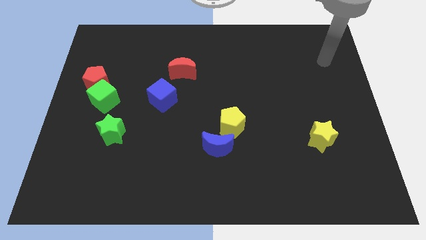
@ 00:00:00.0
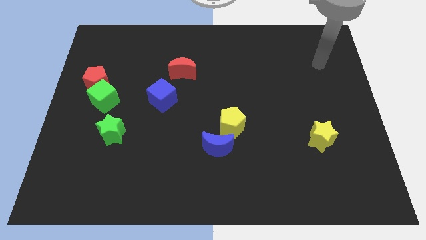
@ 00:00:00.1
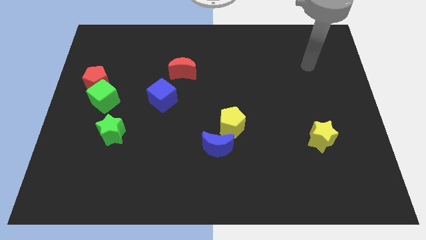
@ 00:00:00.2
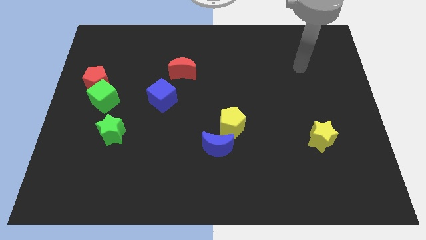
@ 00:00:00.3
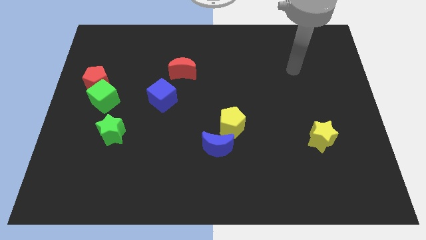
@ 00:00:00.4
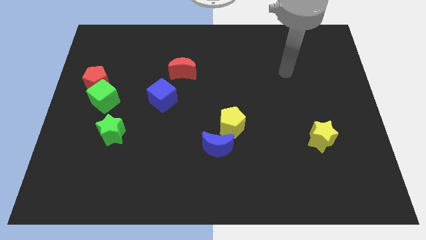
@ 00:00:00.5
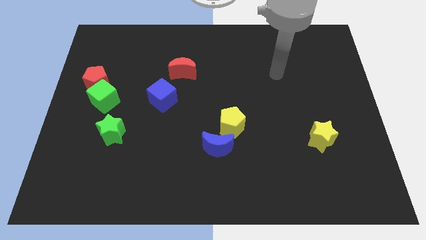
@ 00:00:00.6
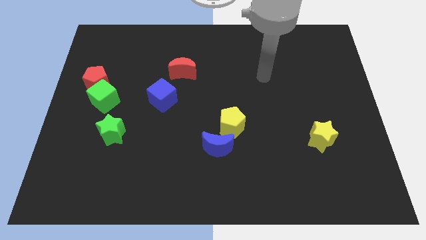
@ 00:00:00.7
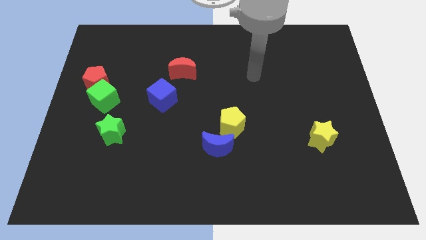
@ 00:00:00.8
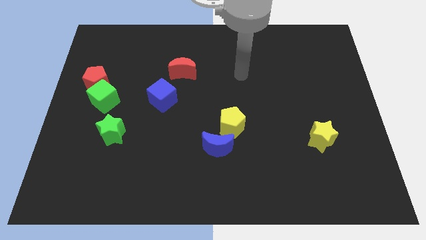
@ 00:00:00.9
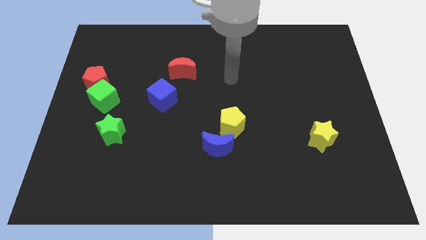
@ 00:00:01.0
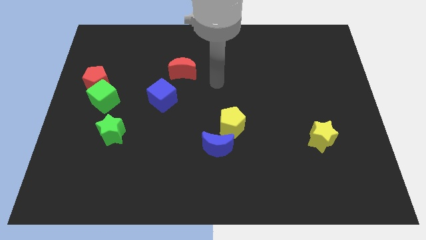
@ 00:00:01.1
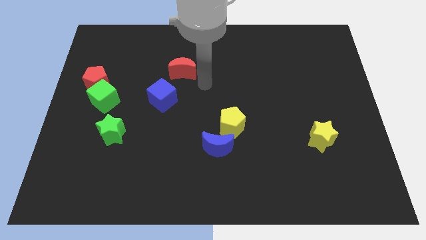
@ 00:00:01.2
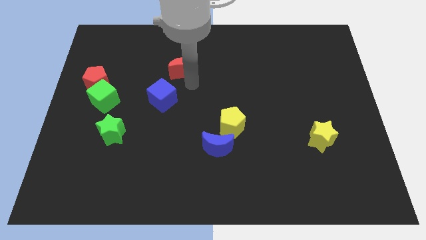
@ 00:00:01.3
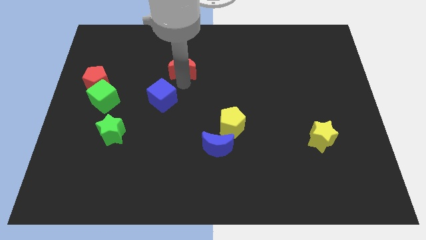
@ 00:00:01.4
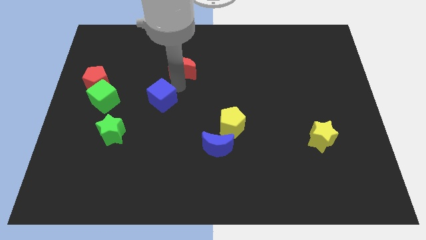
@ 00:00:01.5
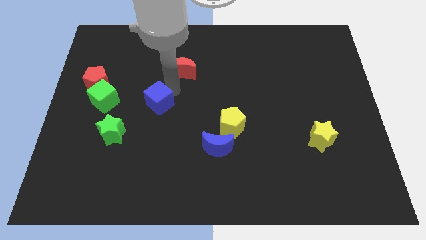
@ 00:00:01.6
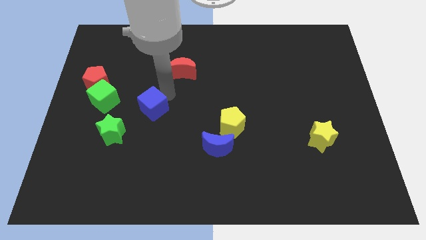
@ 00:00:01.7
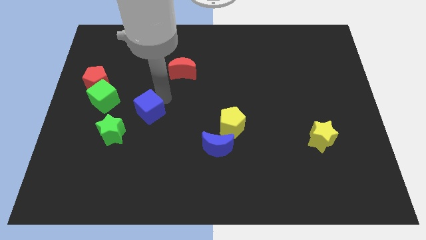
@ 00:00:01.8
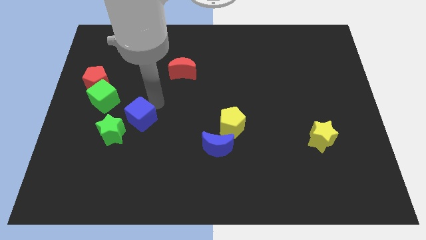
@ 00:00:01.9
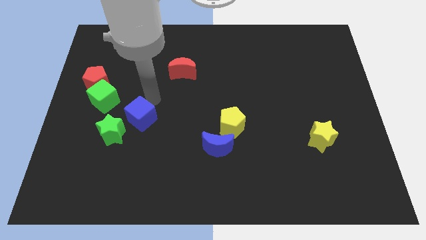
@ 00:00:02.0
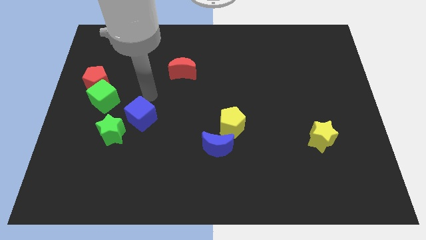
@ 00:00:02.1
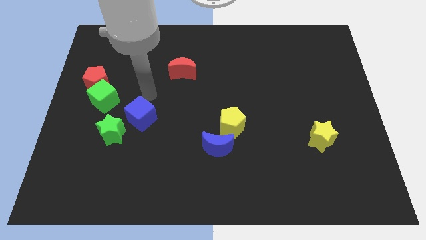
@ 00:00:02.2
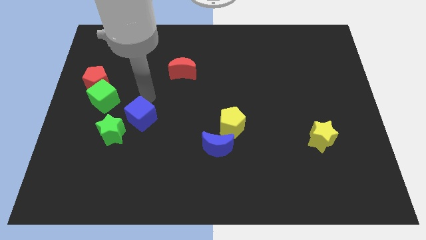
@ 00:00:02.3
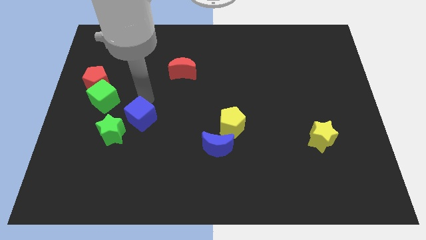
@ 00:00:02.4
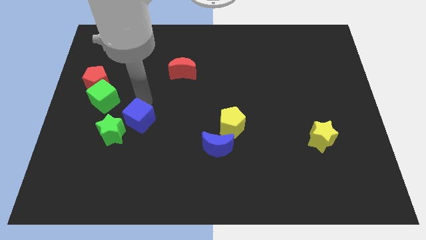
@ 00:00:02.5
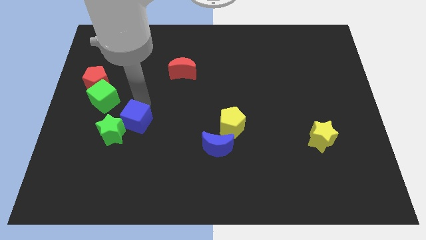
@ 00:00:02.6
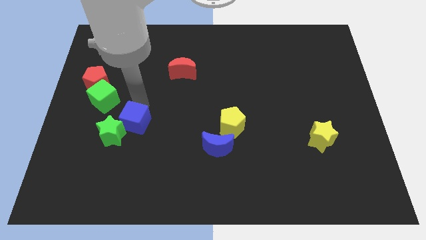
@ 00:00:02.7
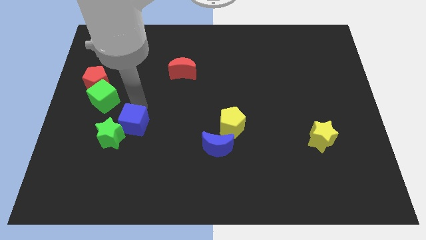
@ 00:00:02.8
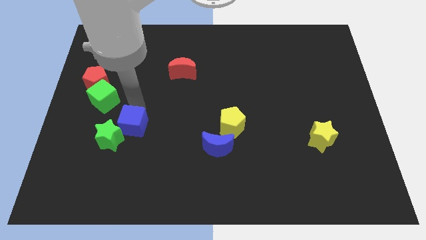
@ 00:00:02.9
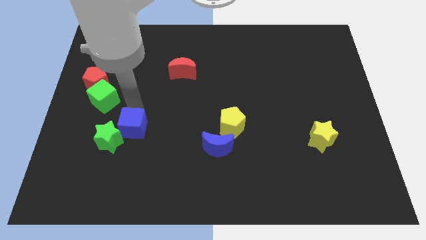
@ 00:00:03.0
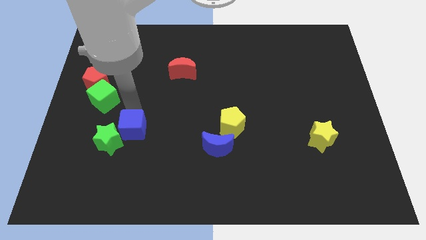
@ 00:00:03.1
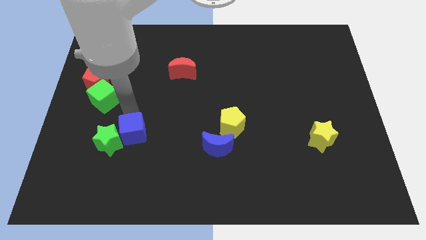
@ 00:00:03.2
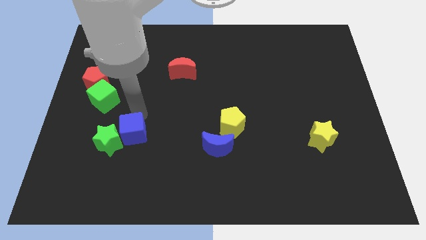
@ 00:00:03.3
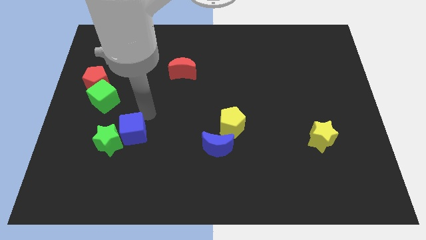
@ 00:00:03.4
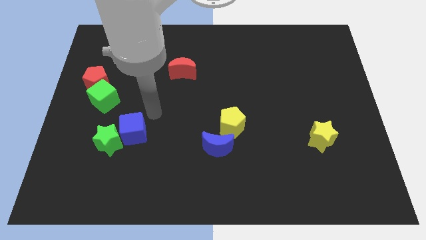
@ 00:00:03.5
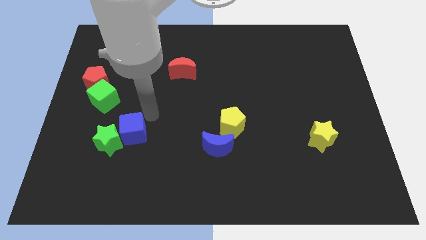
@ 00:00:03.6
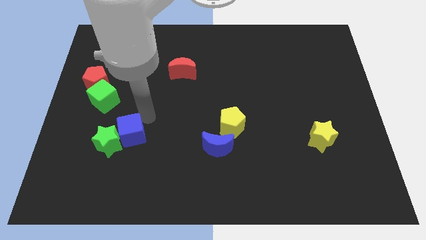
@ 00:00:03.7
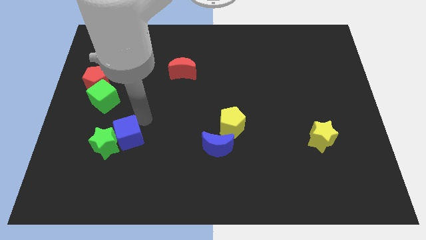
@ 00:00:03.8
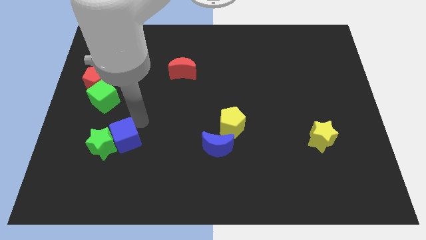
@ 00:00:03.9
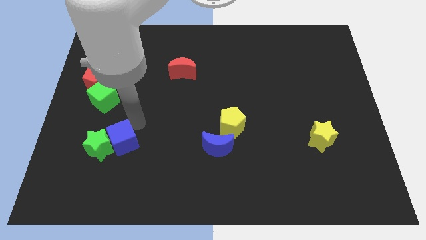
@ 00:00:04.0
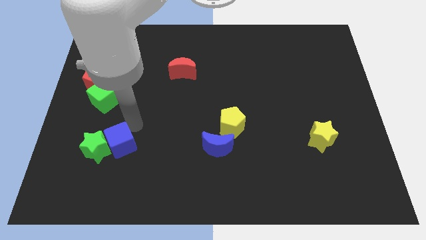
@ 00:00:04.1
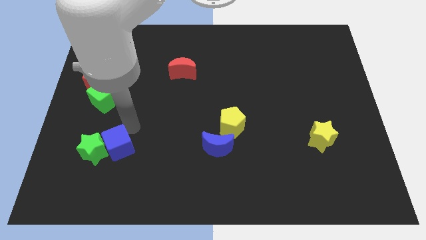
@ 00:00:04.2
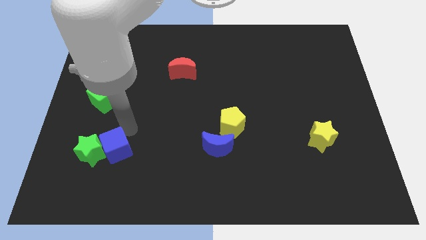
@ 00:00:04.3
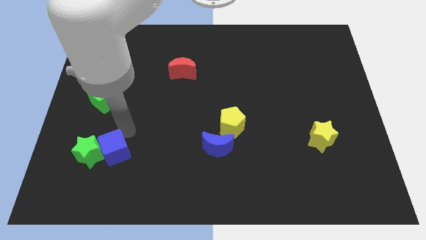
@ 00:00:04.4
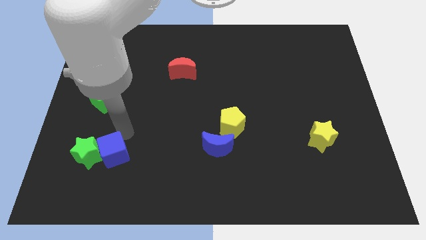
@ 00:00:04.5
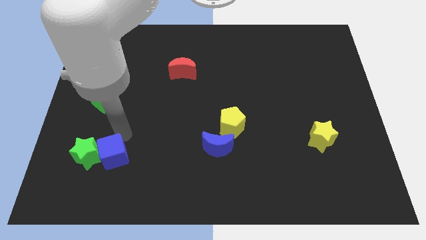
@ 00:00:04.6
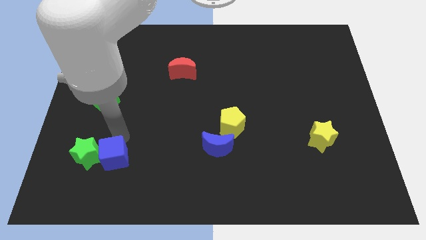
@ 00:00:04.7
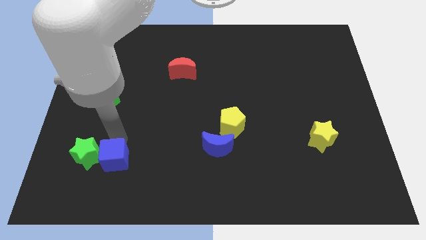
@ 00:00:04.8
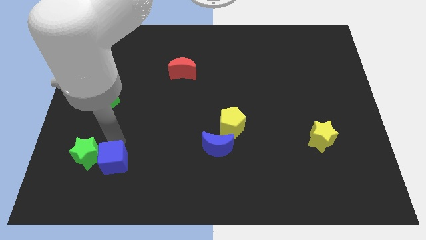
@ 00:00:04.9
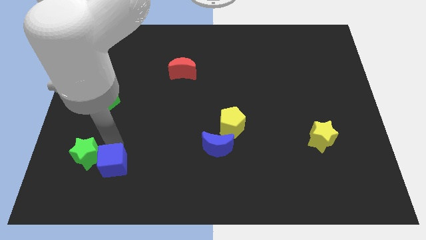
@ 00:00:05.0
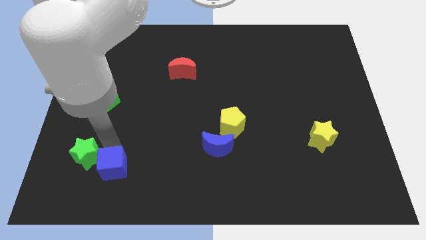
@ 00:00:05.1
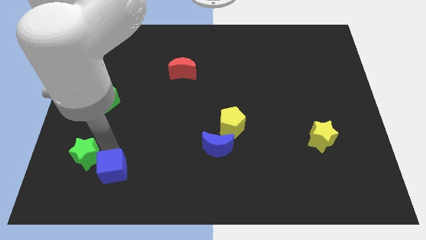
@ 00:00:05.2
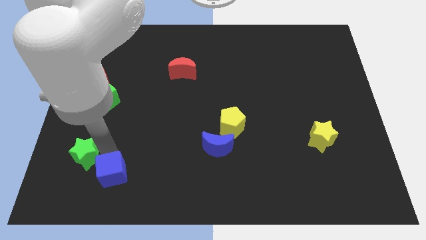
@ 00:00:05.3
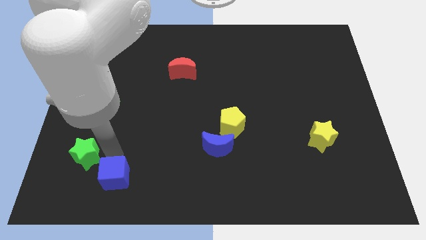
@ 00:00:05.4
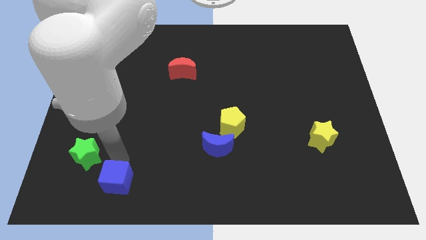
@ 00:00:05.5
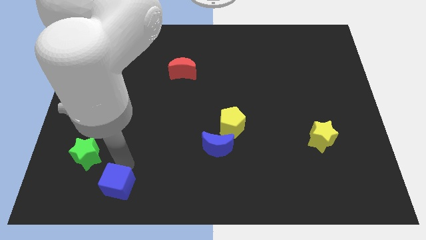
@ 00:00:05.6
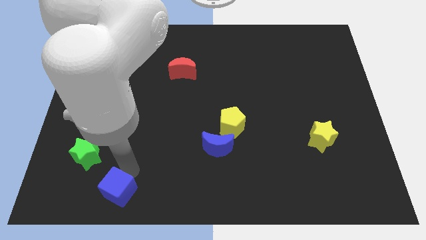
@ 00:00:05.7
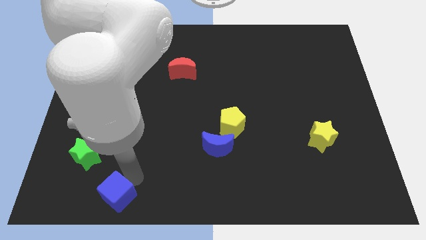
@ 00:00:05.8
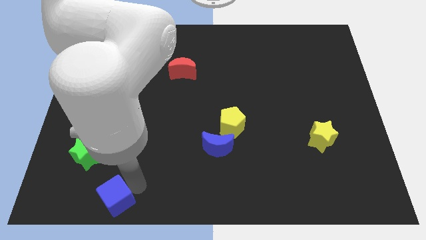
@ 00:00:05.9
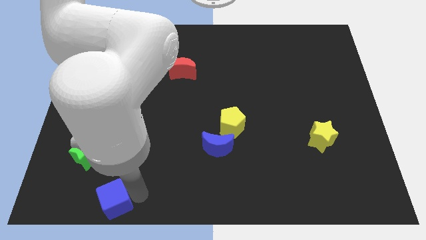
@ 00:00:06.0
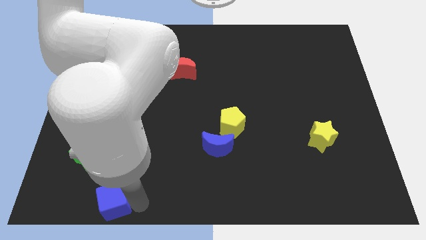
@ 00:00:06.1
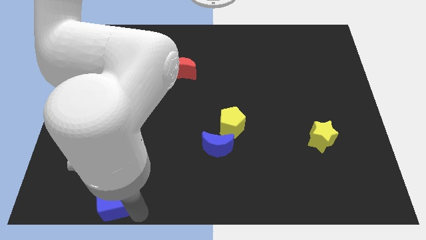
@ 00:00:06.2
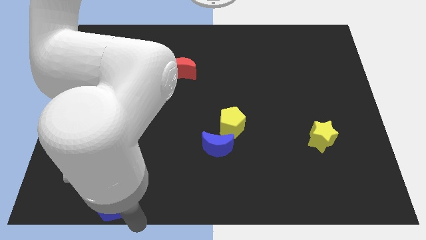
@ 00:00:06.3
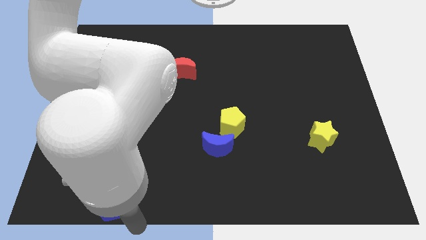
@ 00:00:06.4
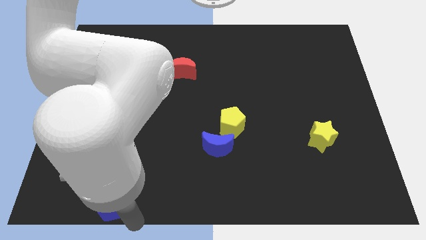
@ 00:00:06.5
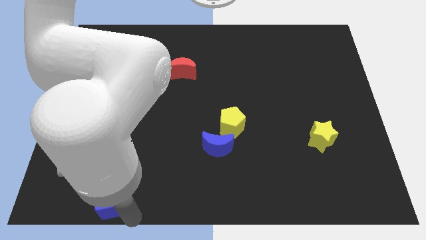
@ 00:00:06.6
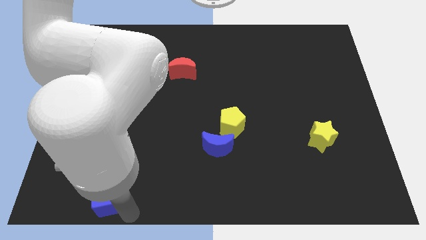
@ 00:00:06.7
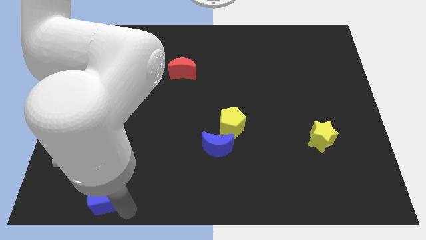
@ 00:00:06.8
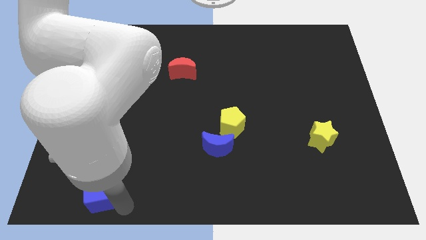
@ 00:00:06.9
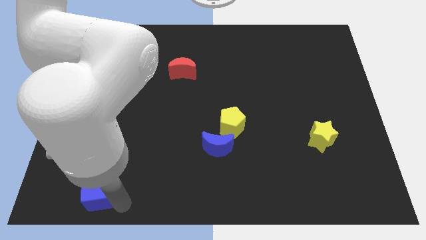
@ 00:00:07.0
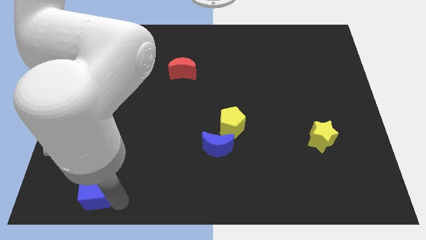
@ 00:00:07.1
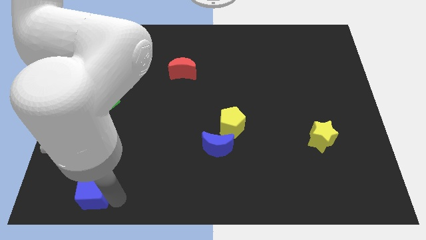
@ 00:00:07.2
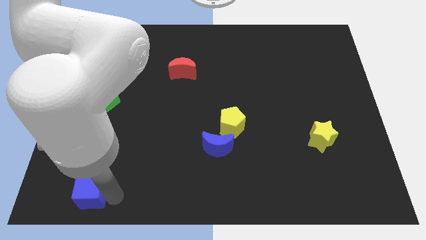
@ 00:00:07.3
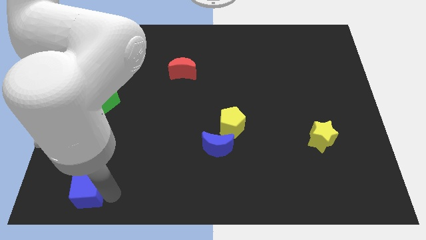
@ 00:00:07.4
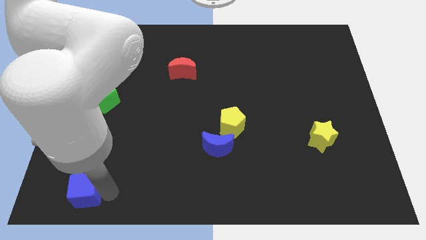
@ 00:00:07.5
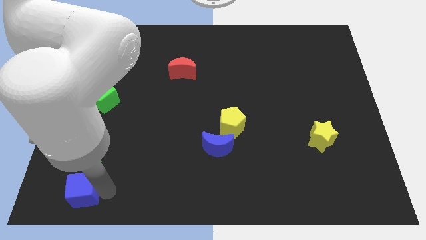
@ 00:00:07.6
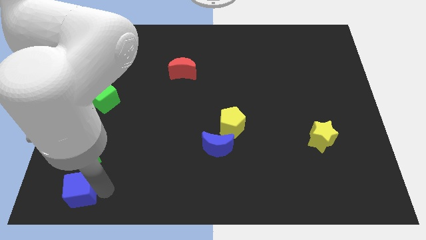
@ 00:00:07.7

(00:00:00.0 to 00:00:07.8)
push the blue cube to the bottom left of the board
